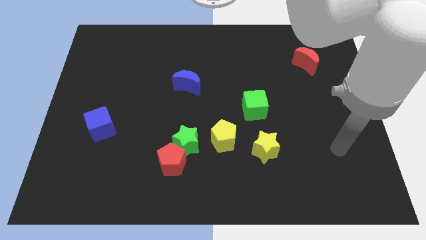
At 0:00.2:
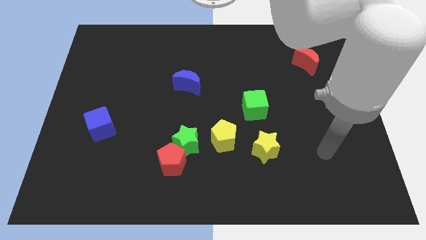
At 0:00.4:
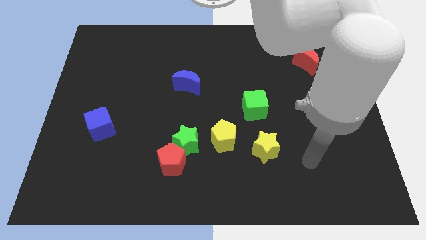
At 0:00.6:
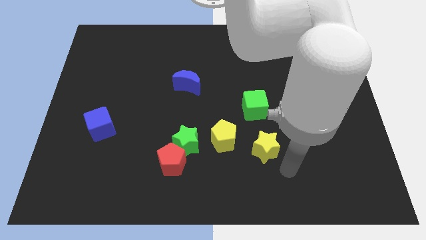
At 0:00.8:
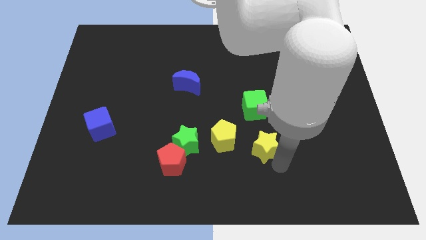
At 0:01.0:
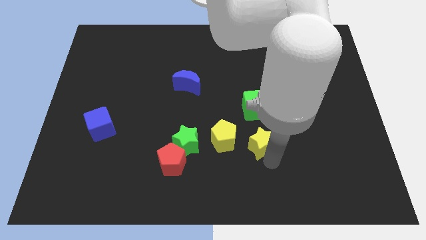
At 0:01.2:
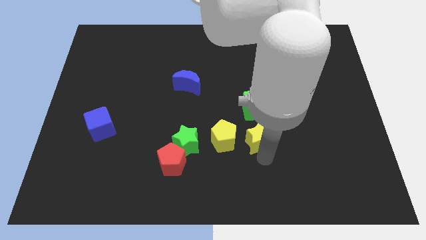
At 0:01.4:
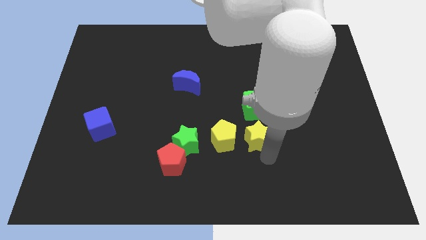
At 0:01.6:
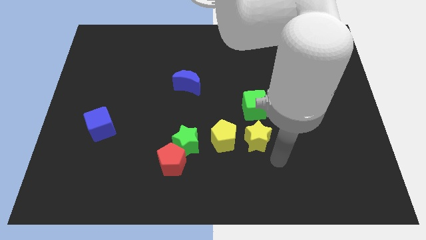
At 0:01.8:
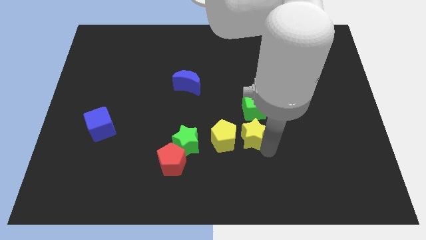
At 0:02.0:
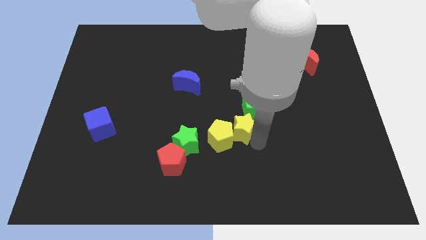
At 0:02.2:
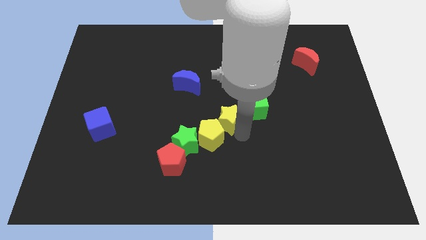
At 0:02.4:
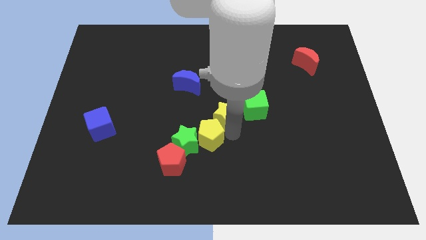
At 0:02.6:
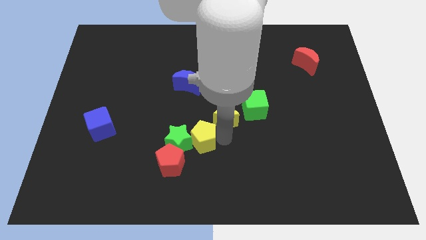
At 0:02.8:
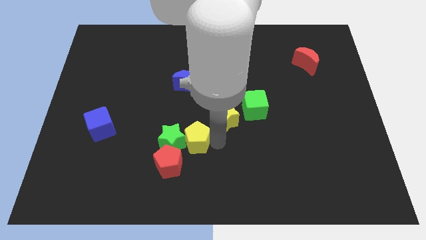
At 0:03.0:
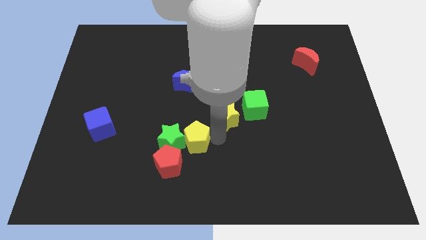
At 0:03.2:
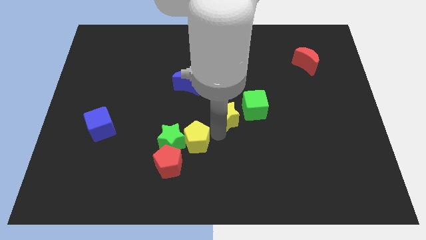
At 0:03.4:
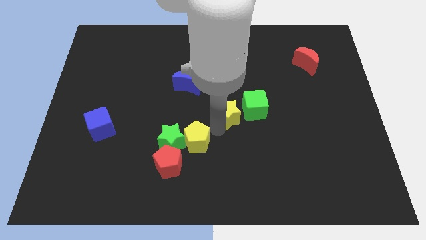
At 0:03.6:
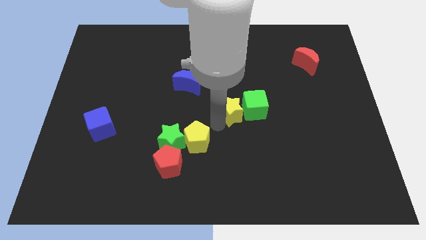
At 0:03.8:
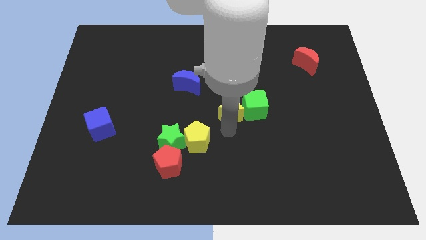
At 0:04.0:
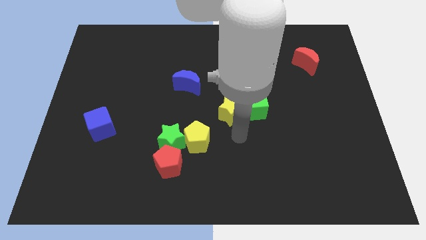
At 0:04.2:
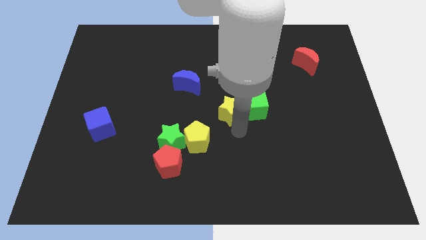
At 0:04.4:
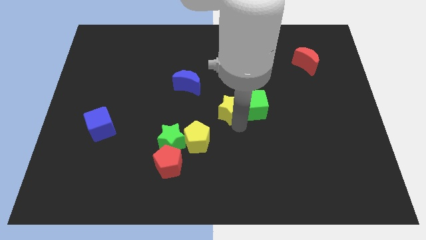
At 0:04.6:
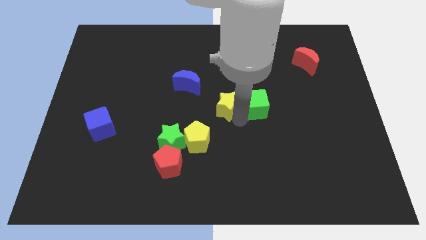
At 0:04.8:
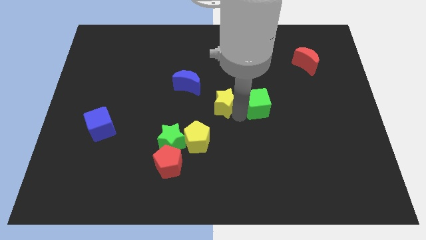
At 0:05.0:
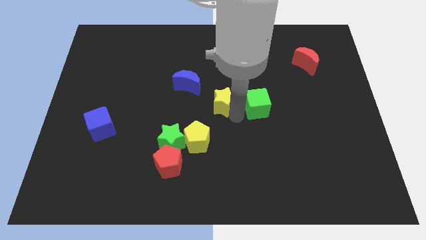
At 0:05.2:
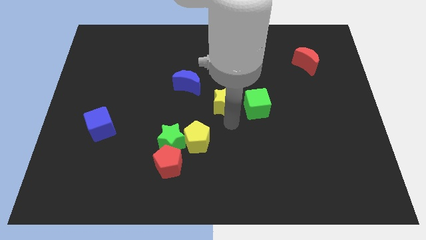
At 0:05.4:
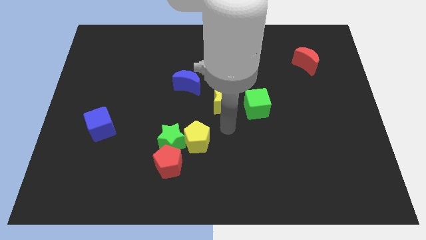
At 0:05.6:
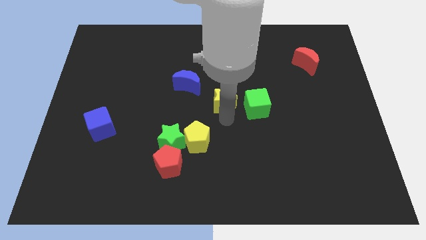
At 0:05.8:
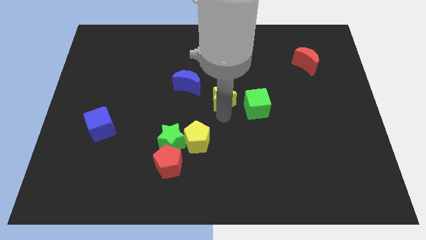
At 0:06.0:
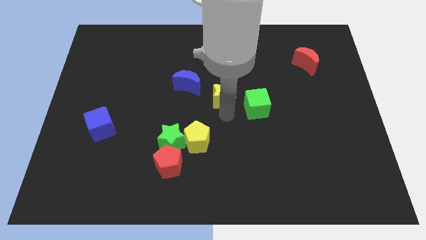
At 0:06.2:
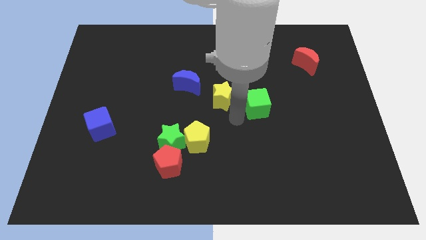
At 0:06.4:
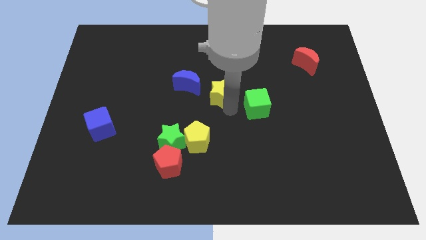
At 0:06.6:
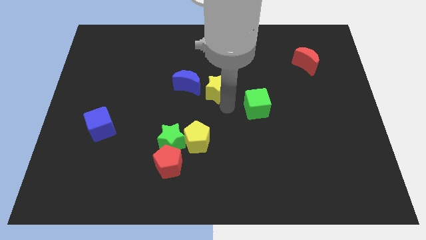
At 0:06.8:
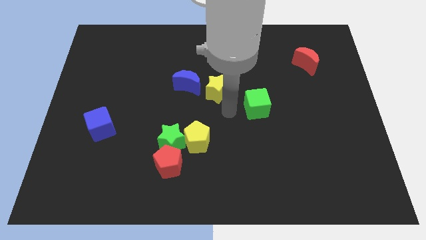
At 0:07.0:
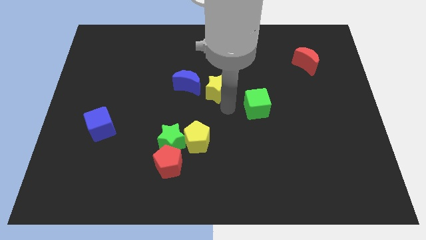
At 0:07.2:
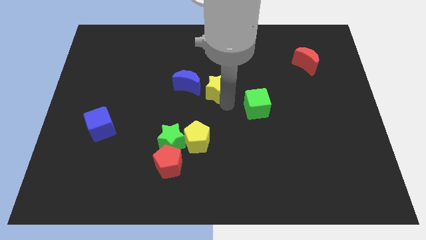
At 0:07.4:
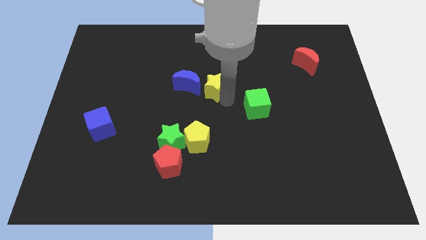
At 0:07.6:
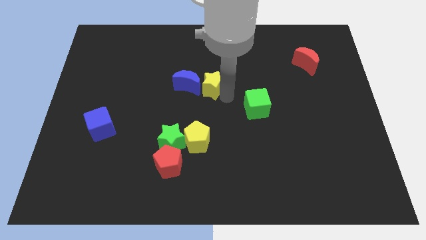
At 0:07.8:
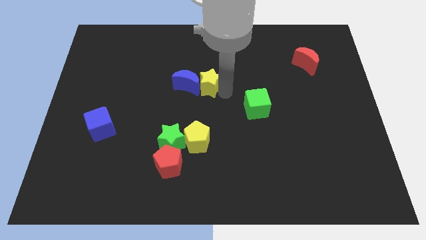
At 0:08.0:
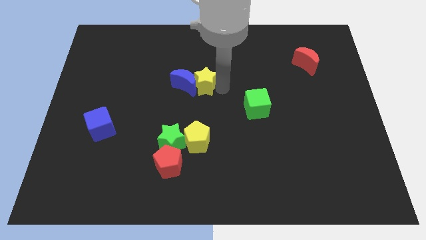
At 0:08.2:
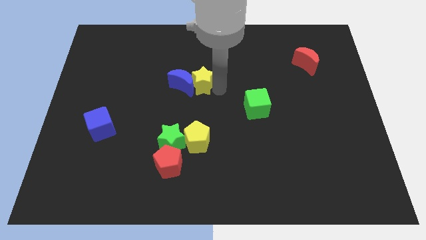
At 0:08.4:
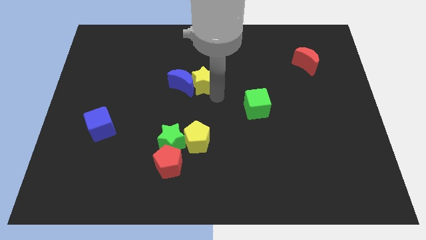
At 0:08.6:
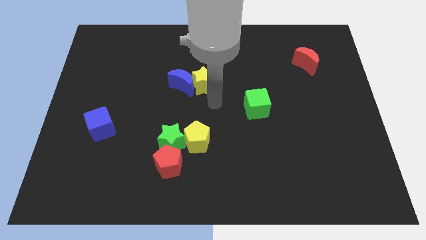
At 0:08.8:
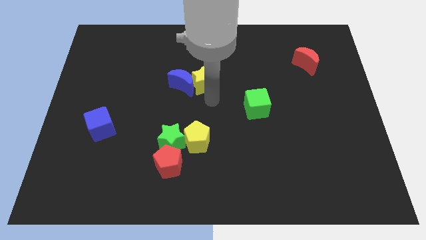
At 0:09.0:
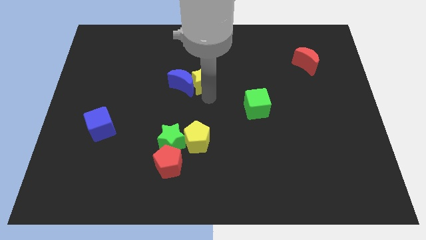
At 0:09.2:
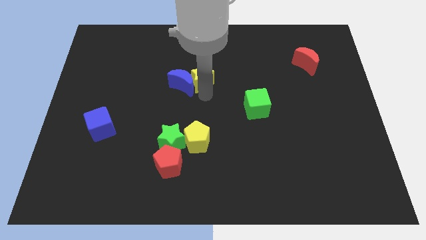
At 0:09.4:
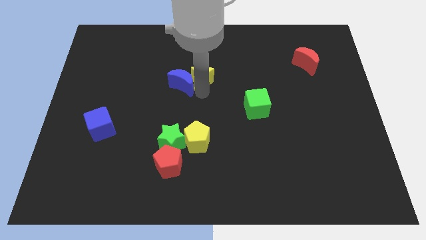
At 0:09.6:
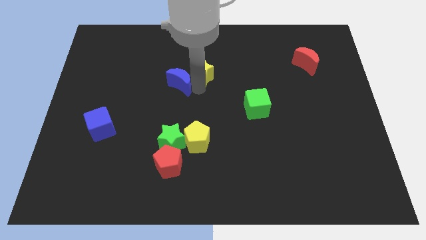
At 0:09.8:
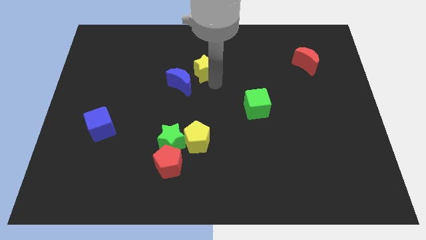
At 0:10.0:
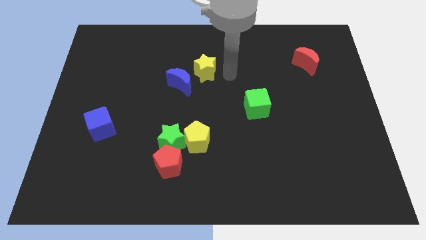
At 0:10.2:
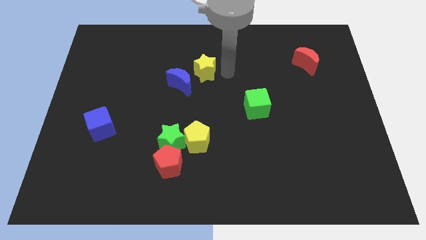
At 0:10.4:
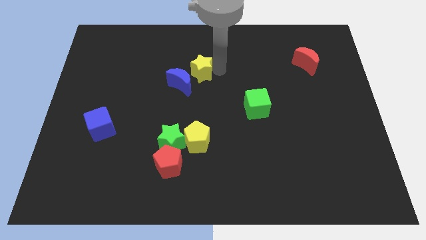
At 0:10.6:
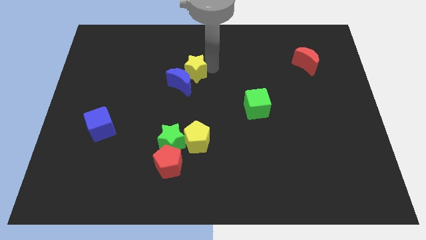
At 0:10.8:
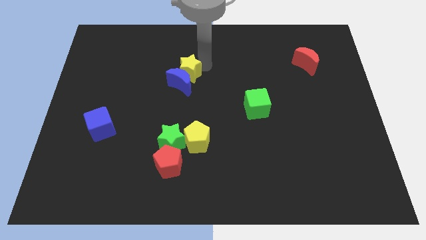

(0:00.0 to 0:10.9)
push the yellow star diagonally up and to the left of the blue moon

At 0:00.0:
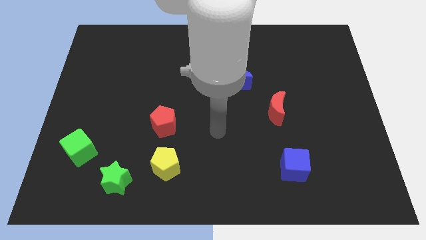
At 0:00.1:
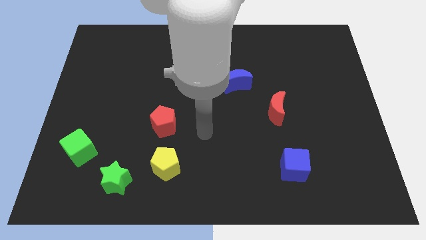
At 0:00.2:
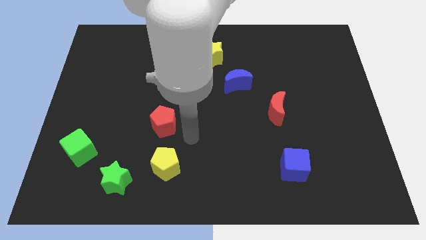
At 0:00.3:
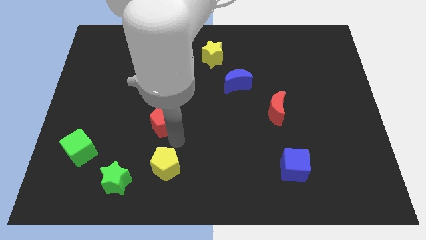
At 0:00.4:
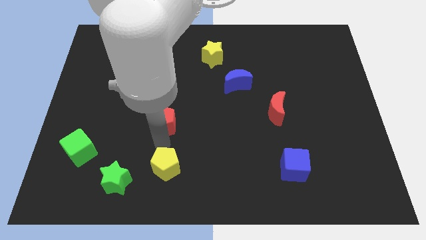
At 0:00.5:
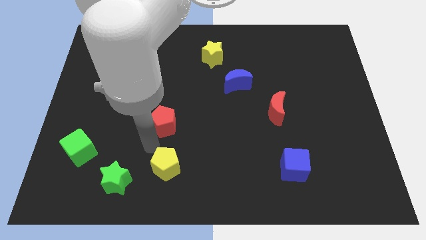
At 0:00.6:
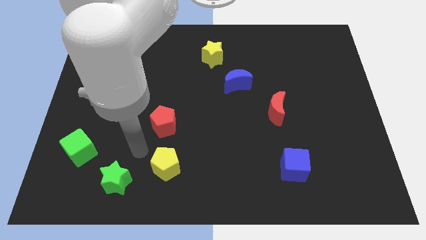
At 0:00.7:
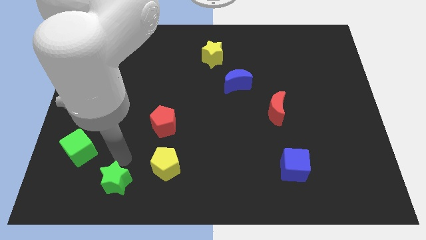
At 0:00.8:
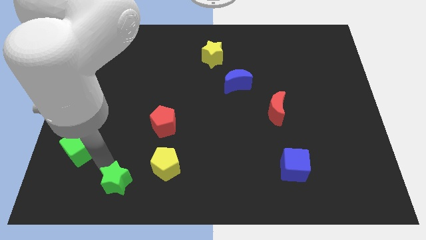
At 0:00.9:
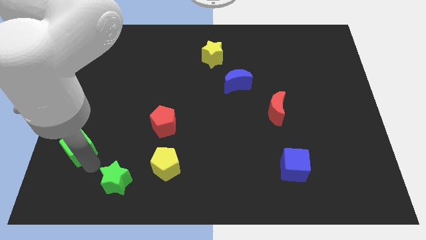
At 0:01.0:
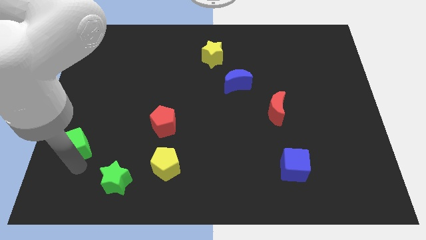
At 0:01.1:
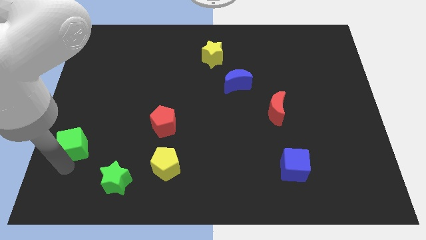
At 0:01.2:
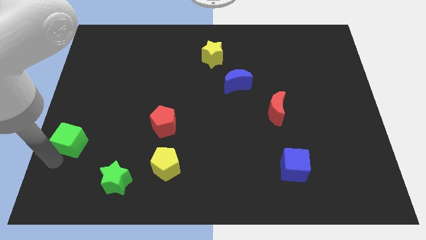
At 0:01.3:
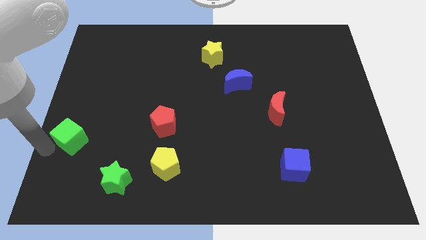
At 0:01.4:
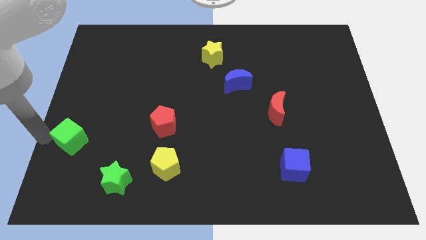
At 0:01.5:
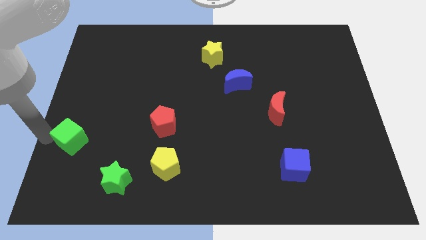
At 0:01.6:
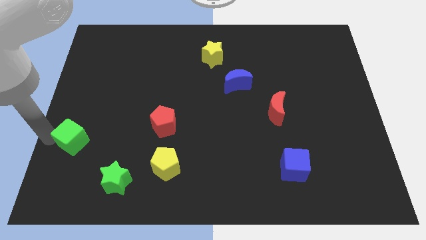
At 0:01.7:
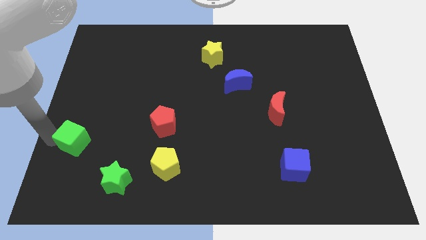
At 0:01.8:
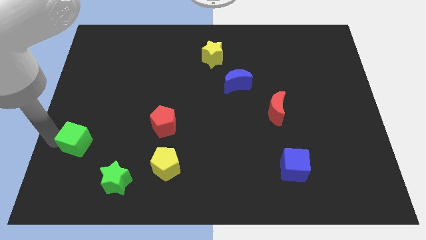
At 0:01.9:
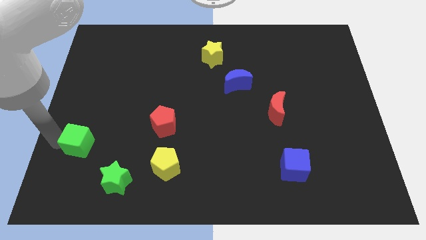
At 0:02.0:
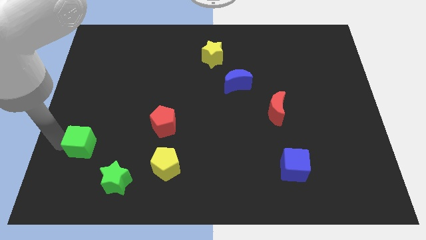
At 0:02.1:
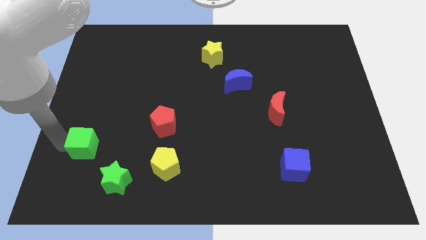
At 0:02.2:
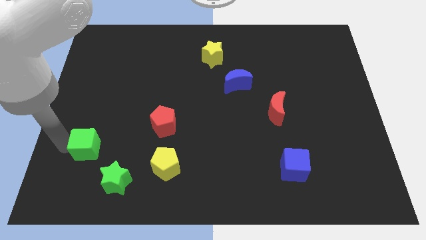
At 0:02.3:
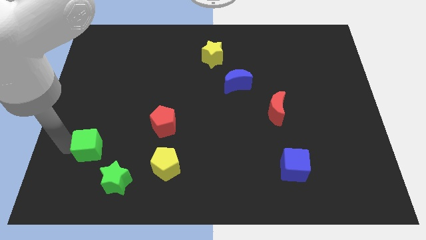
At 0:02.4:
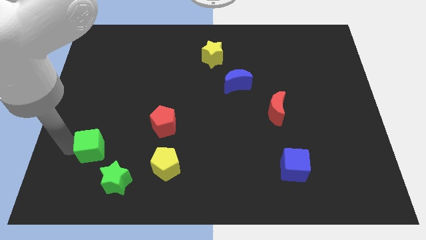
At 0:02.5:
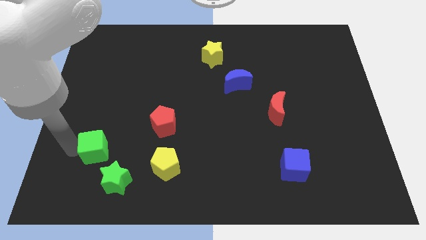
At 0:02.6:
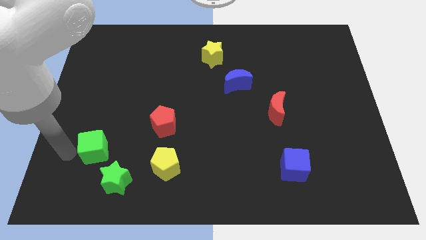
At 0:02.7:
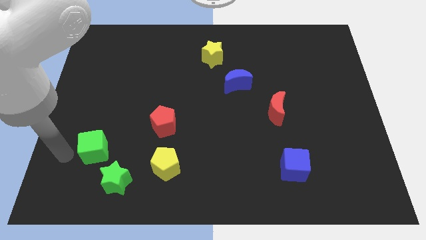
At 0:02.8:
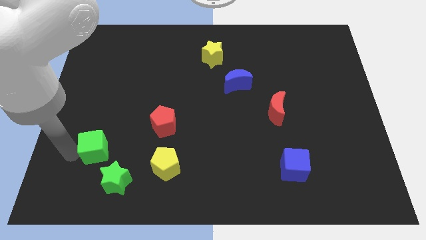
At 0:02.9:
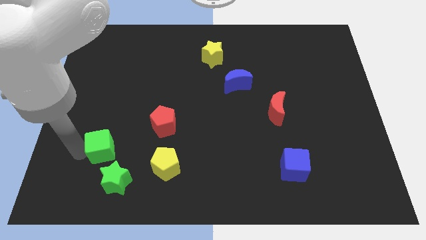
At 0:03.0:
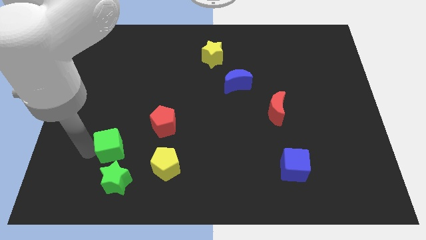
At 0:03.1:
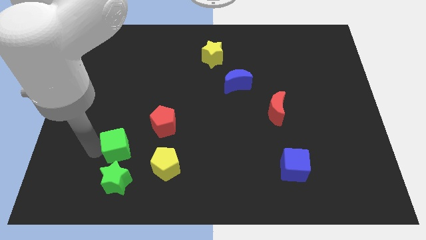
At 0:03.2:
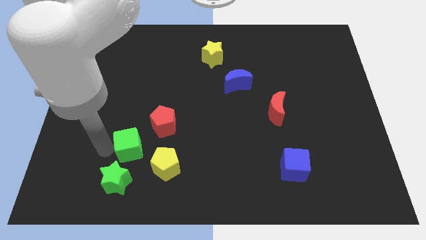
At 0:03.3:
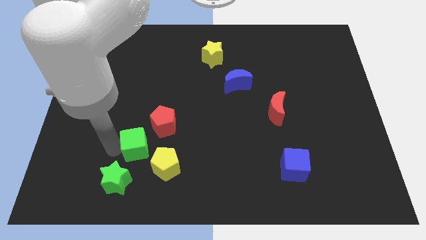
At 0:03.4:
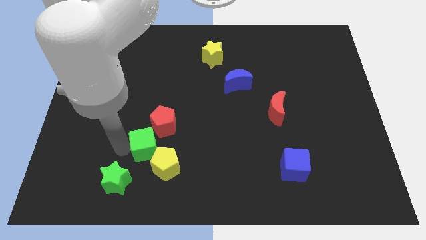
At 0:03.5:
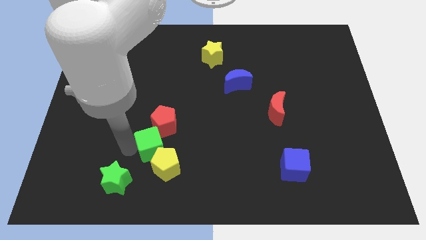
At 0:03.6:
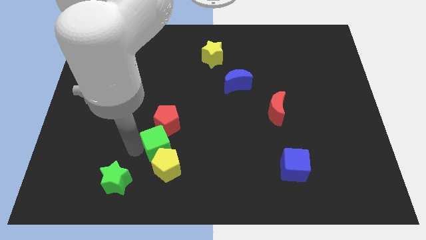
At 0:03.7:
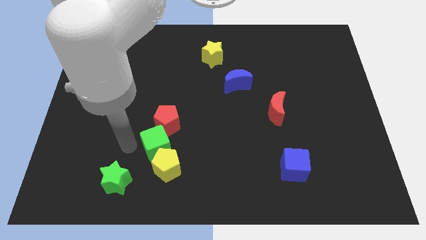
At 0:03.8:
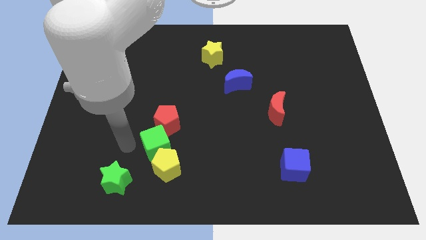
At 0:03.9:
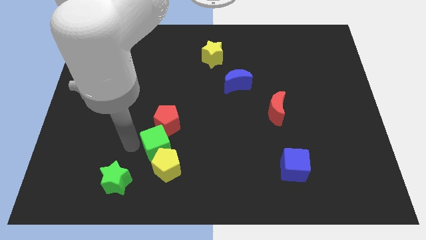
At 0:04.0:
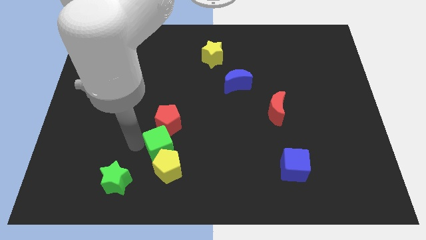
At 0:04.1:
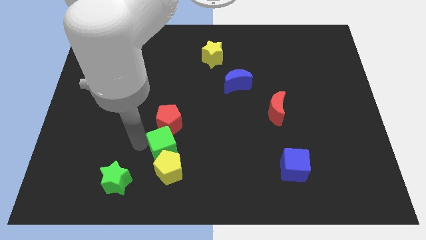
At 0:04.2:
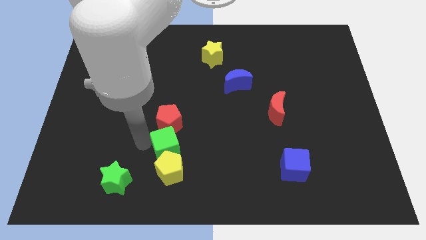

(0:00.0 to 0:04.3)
put the green cube to the top right of the yellow pentagon
